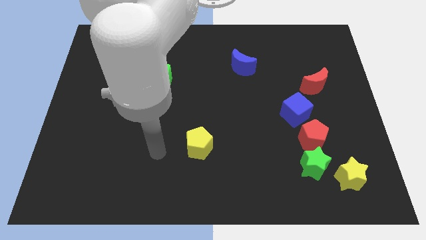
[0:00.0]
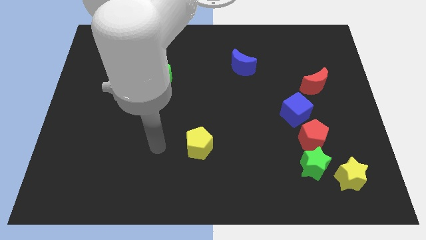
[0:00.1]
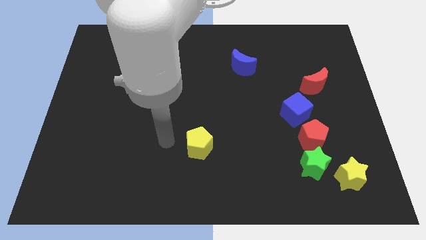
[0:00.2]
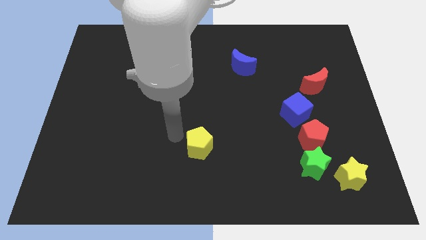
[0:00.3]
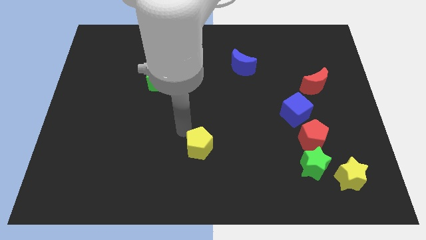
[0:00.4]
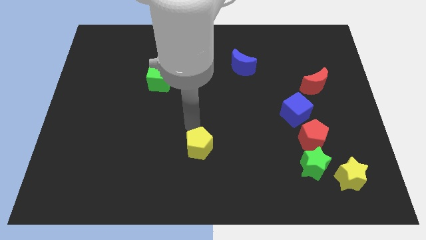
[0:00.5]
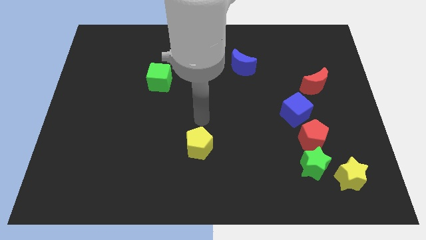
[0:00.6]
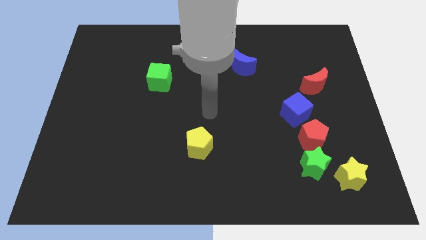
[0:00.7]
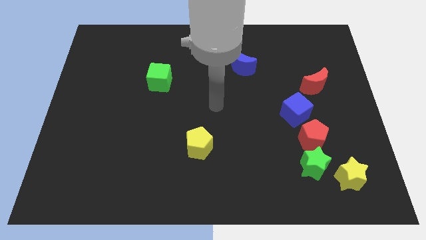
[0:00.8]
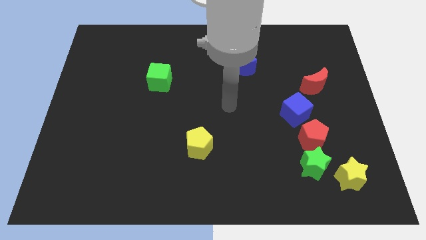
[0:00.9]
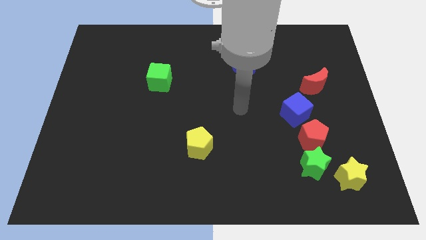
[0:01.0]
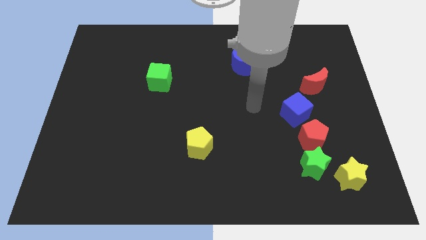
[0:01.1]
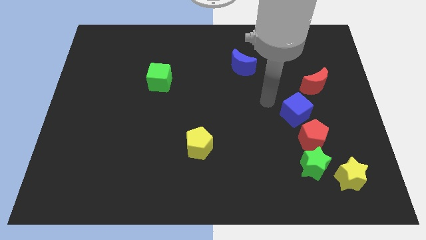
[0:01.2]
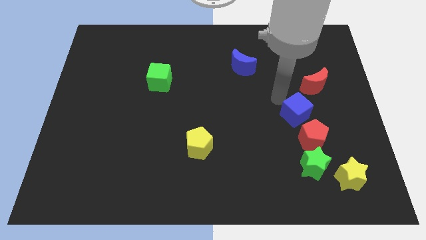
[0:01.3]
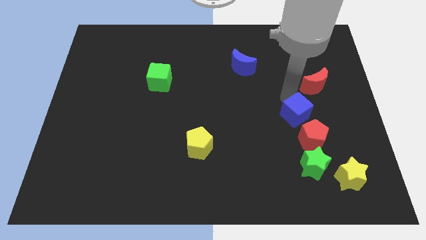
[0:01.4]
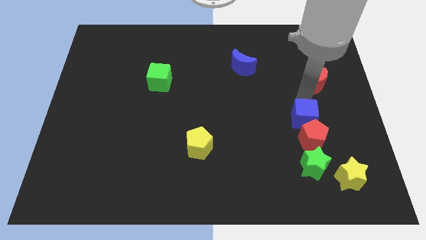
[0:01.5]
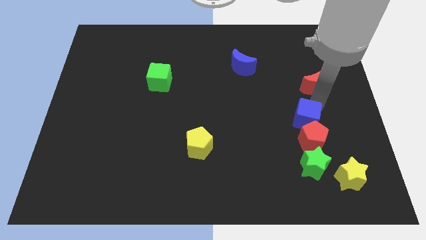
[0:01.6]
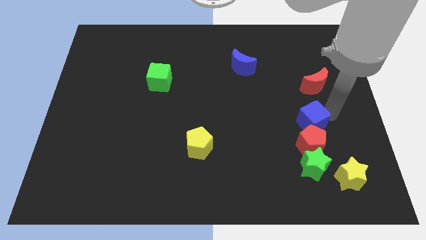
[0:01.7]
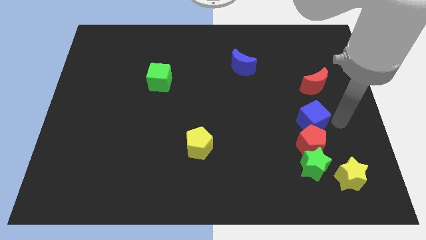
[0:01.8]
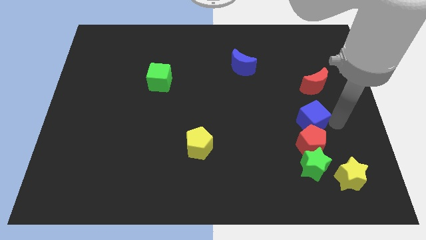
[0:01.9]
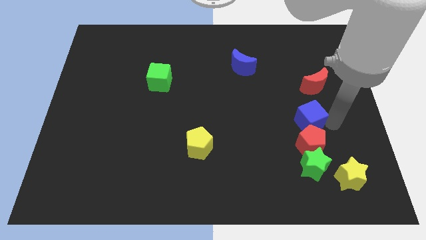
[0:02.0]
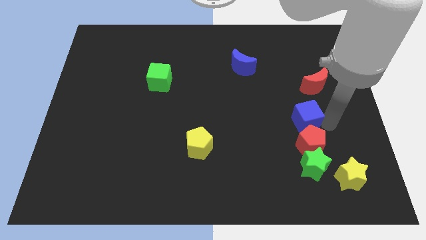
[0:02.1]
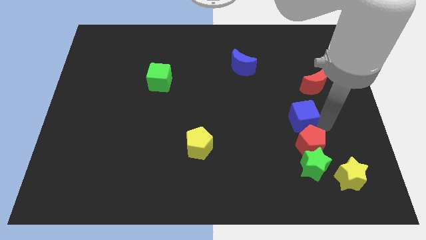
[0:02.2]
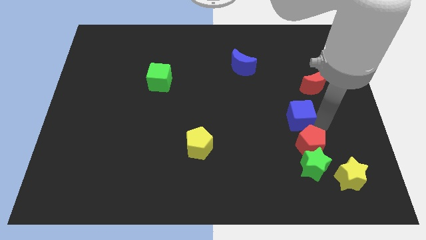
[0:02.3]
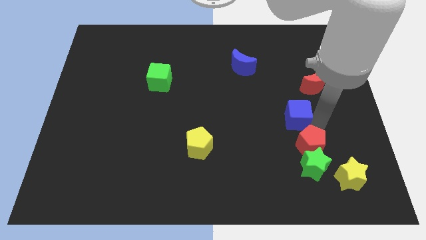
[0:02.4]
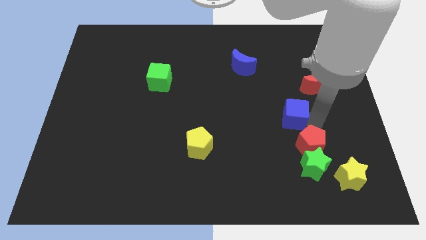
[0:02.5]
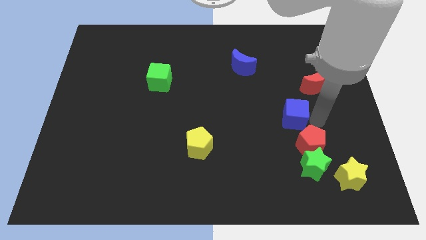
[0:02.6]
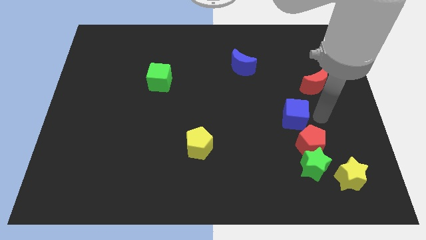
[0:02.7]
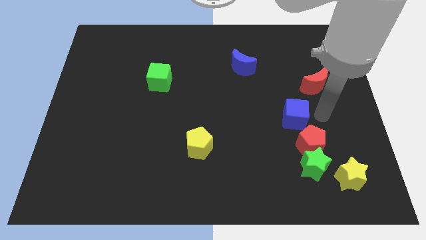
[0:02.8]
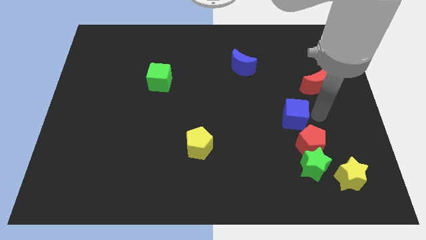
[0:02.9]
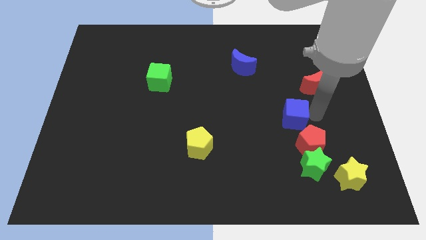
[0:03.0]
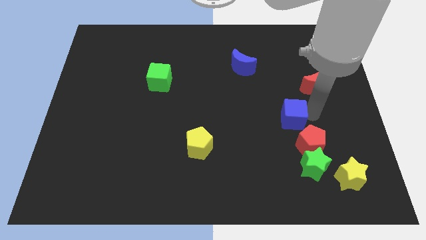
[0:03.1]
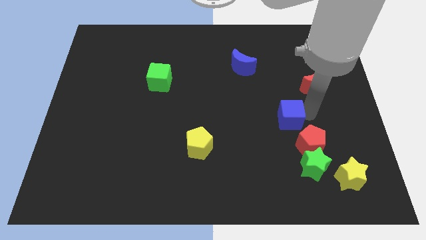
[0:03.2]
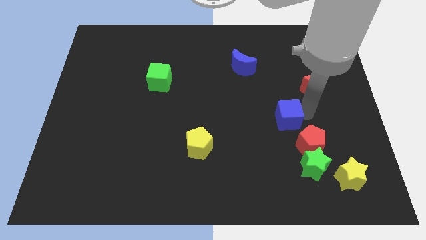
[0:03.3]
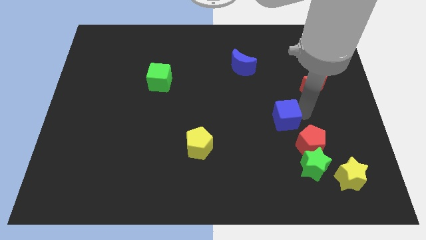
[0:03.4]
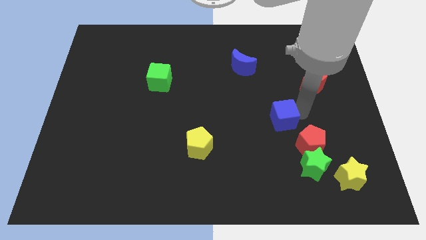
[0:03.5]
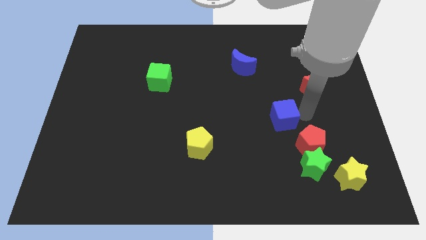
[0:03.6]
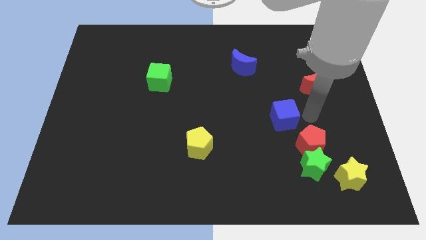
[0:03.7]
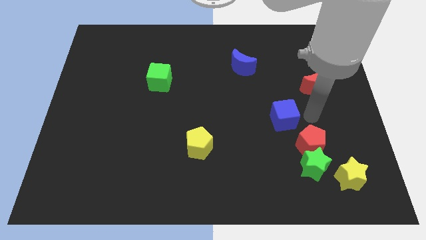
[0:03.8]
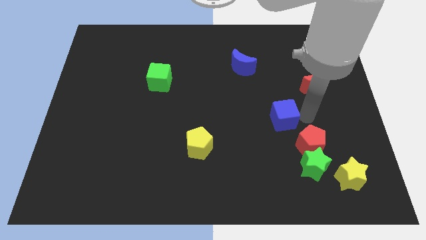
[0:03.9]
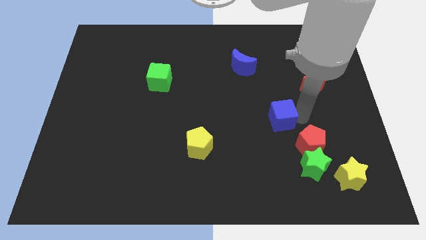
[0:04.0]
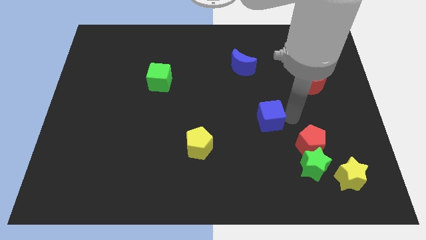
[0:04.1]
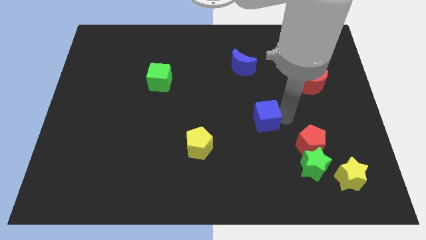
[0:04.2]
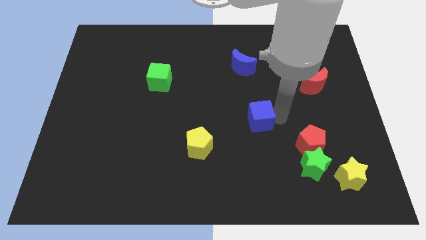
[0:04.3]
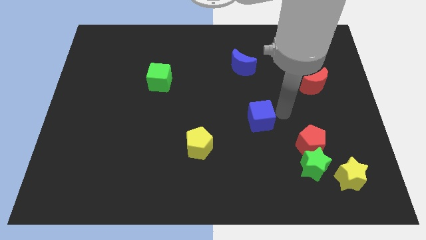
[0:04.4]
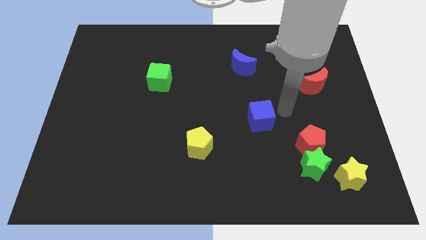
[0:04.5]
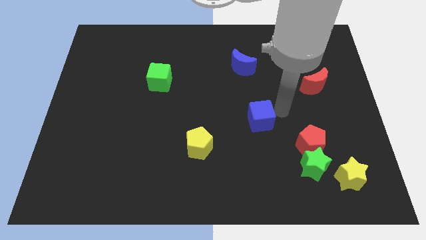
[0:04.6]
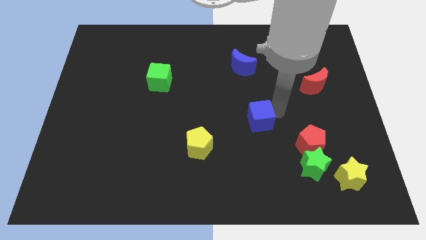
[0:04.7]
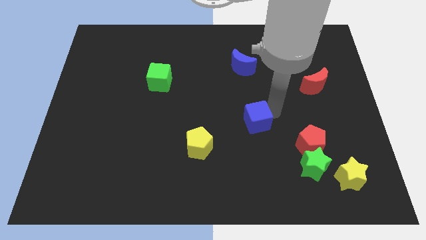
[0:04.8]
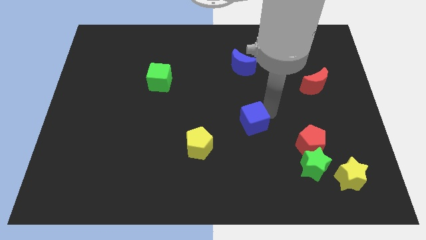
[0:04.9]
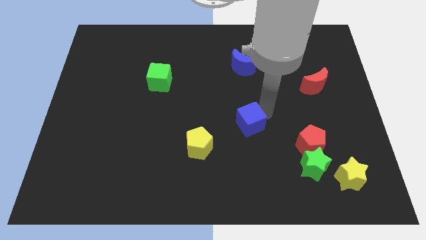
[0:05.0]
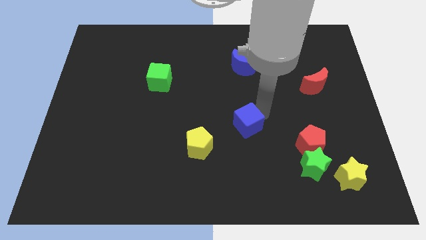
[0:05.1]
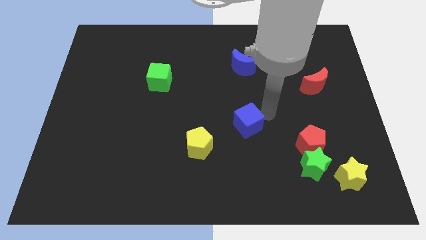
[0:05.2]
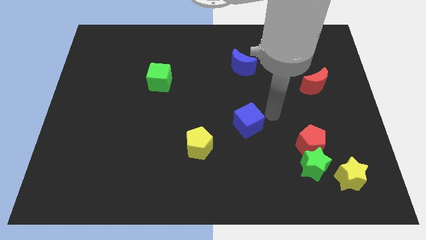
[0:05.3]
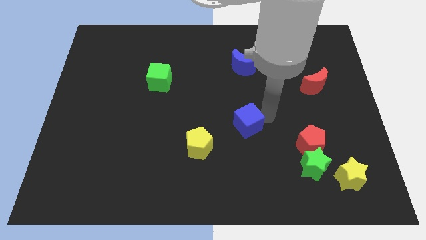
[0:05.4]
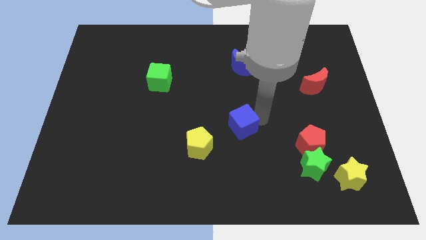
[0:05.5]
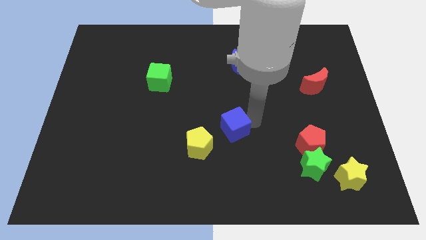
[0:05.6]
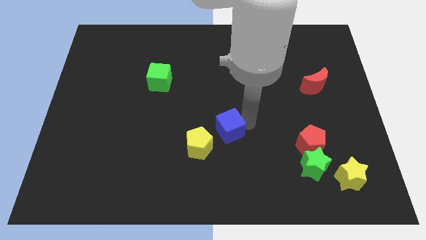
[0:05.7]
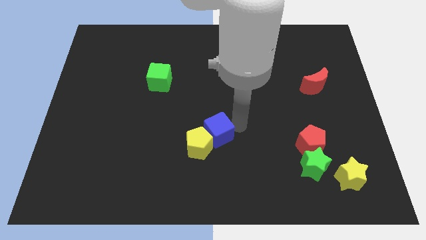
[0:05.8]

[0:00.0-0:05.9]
push the blue cube next to the yellow pentagon

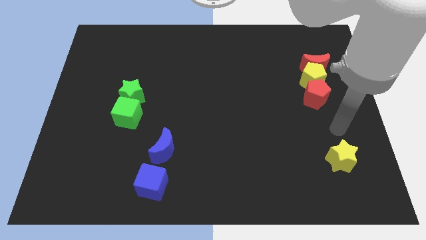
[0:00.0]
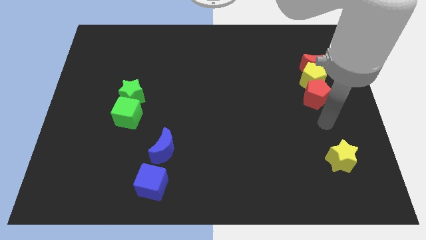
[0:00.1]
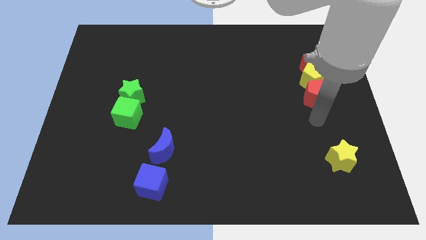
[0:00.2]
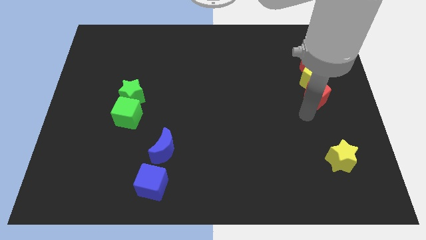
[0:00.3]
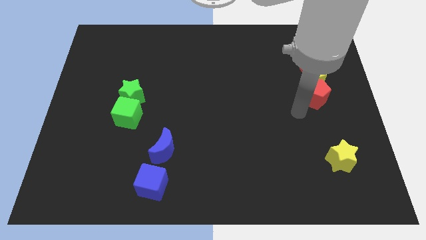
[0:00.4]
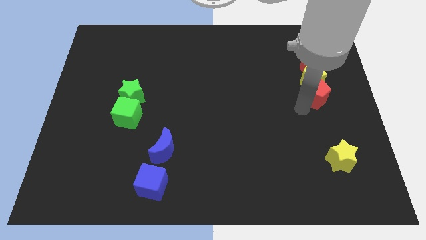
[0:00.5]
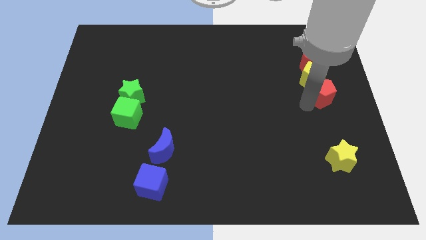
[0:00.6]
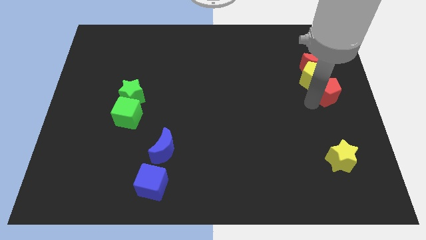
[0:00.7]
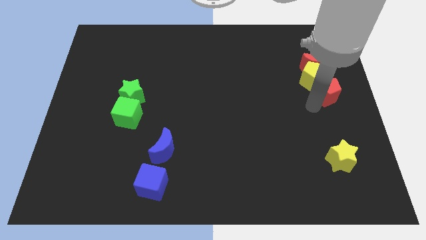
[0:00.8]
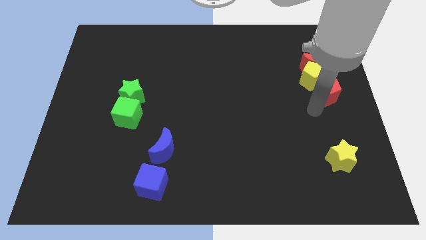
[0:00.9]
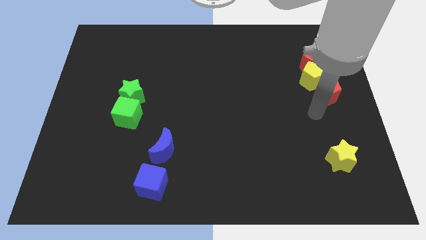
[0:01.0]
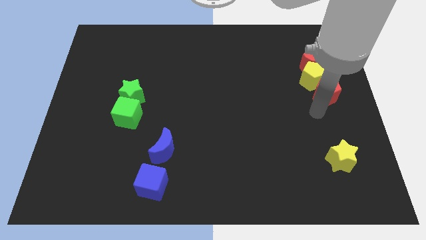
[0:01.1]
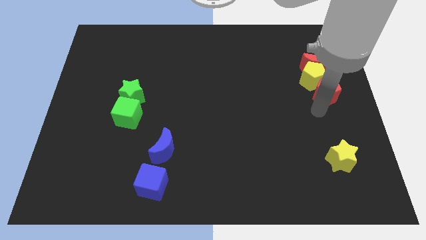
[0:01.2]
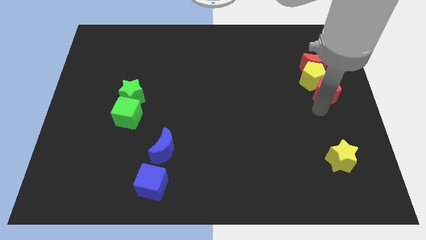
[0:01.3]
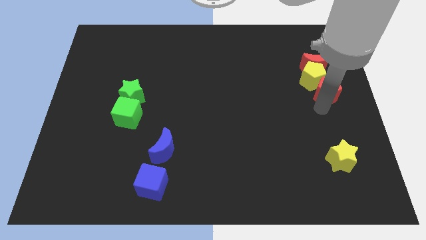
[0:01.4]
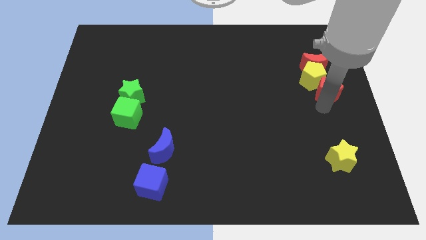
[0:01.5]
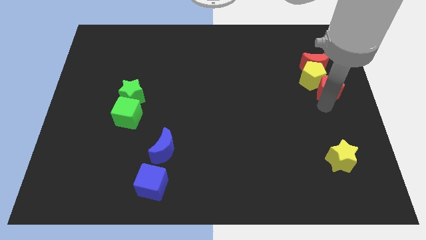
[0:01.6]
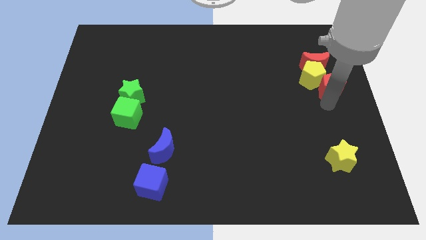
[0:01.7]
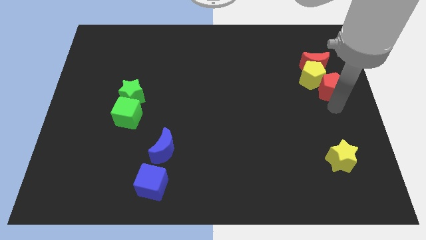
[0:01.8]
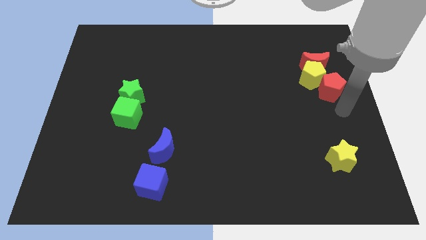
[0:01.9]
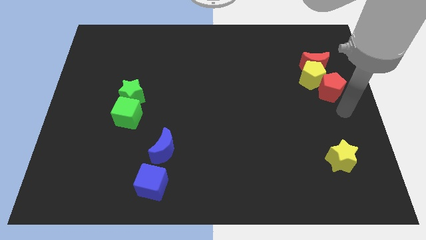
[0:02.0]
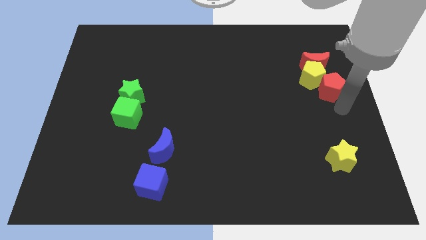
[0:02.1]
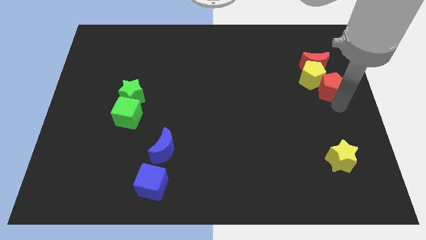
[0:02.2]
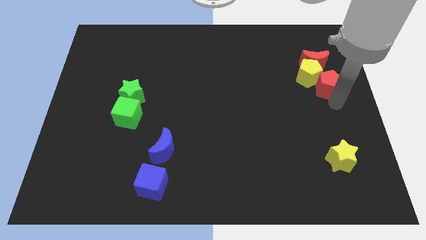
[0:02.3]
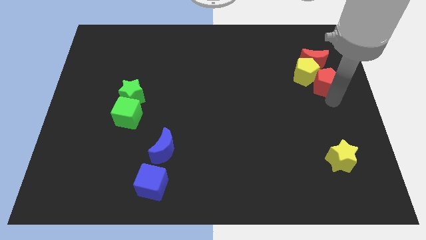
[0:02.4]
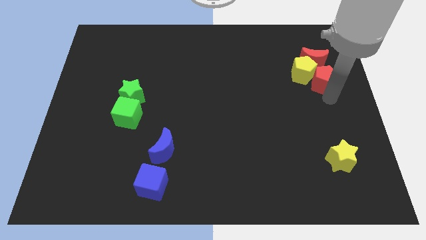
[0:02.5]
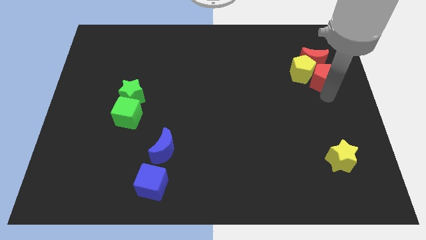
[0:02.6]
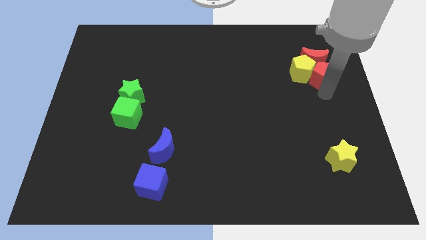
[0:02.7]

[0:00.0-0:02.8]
slide the red pentagon towards the red moon
